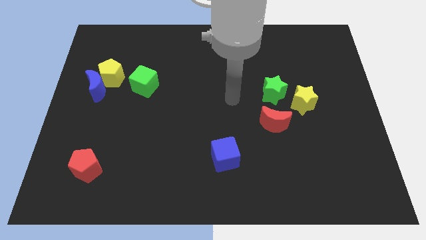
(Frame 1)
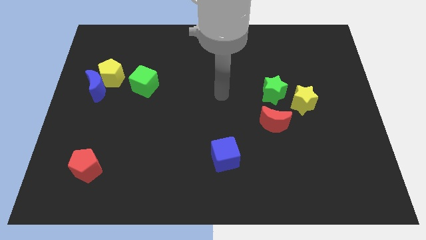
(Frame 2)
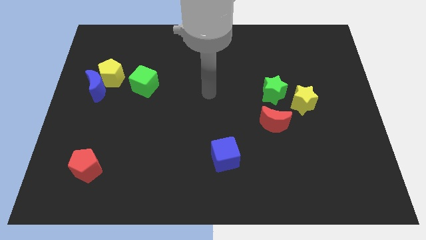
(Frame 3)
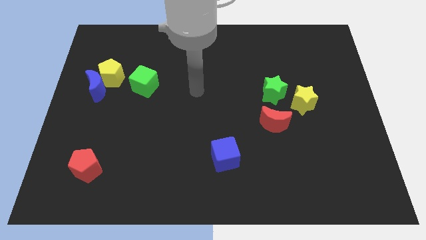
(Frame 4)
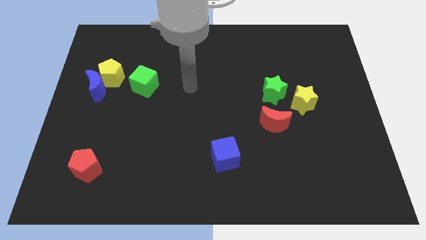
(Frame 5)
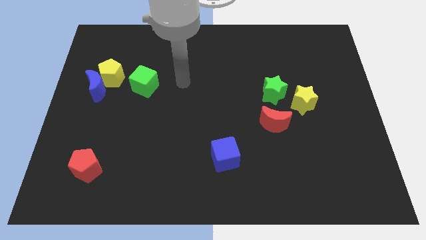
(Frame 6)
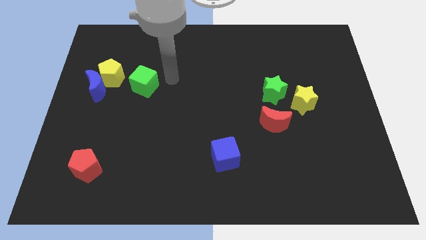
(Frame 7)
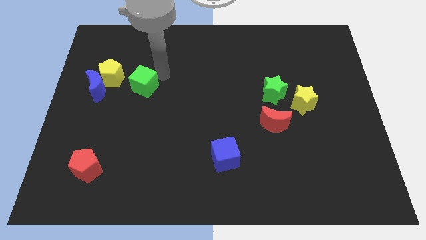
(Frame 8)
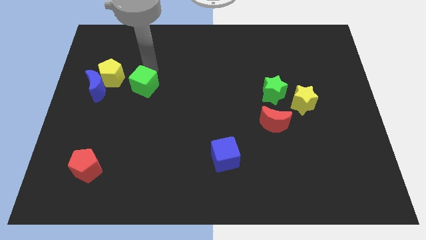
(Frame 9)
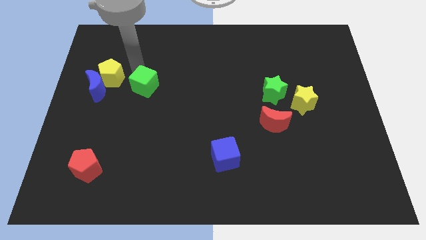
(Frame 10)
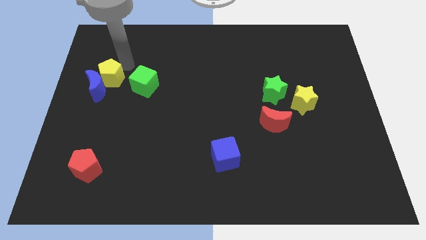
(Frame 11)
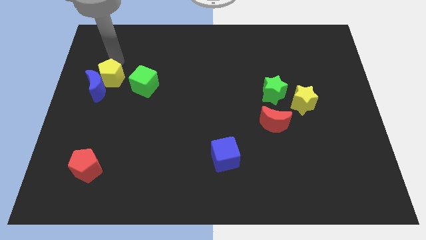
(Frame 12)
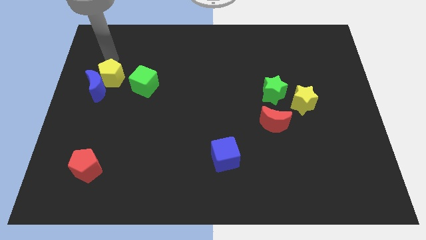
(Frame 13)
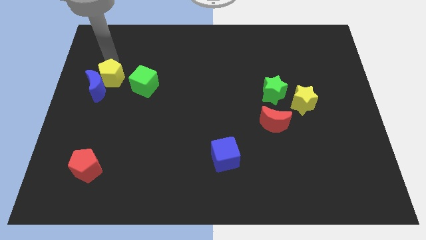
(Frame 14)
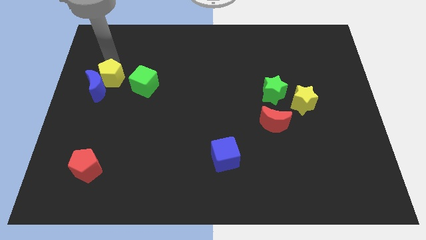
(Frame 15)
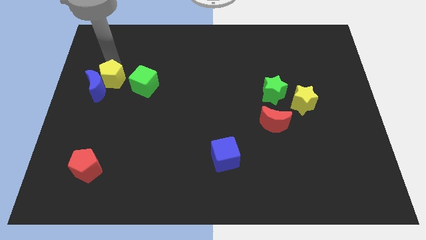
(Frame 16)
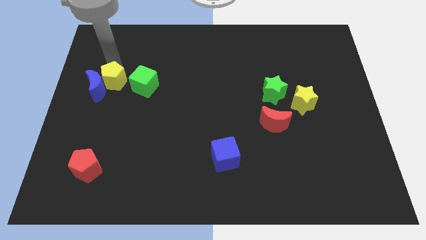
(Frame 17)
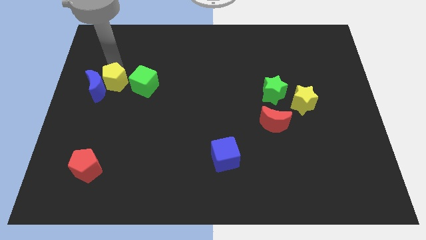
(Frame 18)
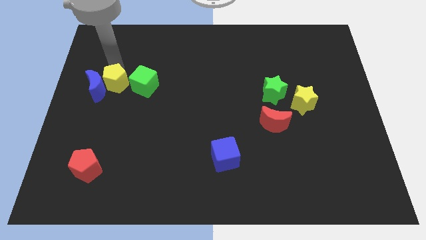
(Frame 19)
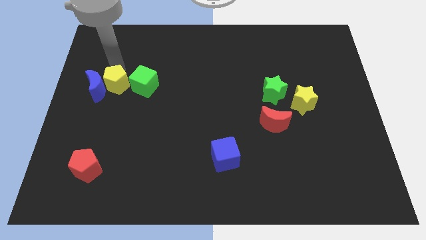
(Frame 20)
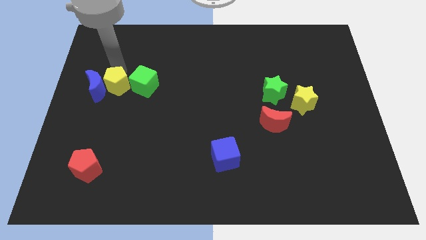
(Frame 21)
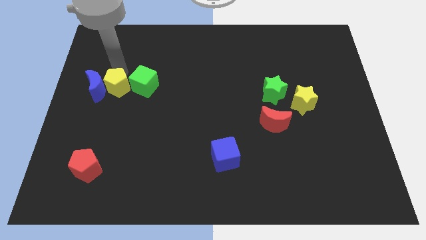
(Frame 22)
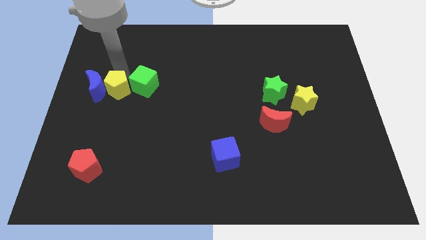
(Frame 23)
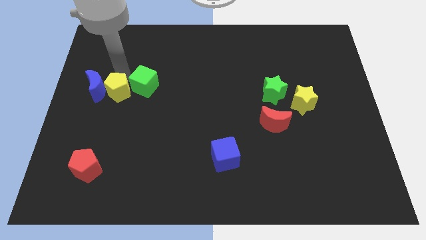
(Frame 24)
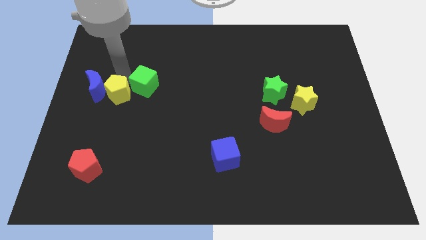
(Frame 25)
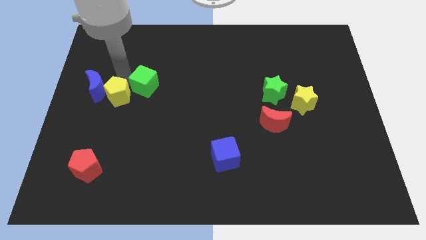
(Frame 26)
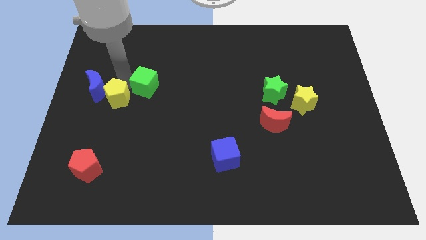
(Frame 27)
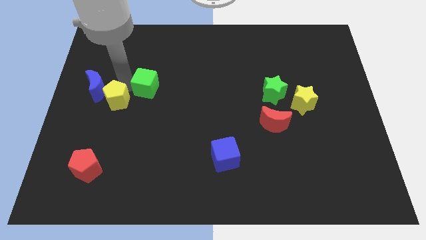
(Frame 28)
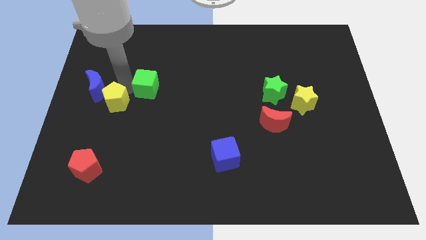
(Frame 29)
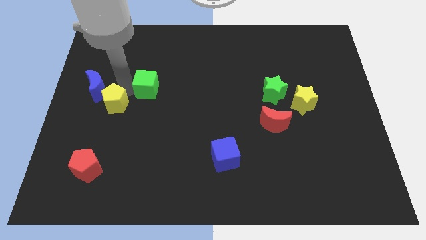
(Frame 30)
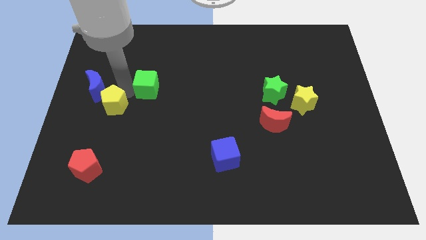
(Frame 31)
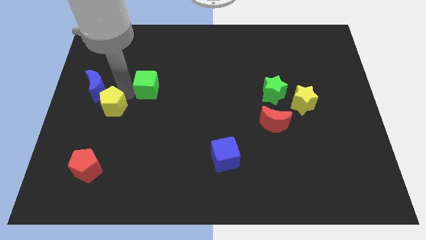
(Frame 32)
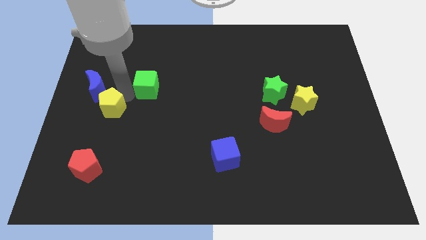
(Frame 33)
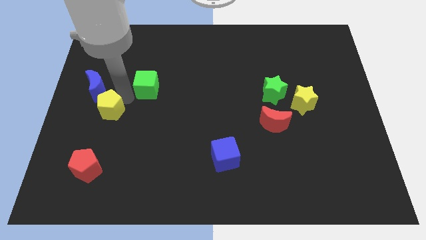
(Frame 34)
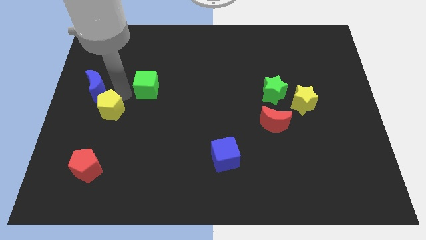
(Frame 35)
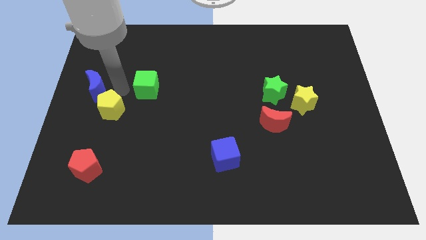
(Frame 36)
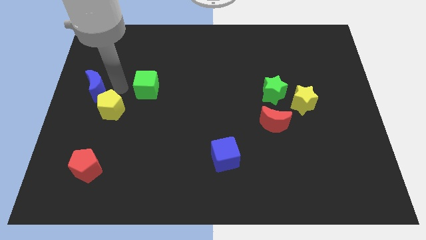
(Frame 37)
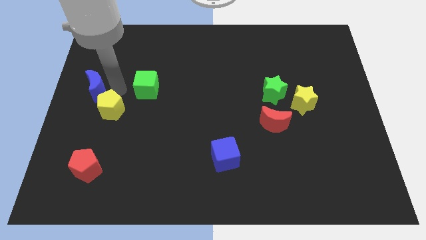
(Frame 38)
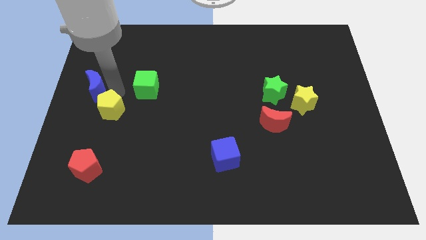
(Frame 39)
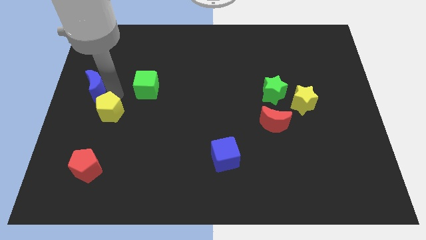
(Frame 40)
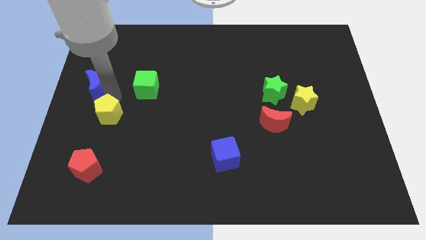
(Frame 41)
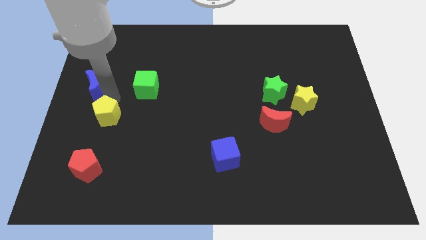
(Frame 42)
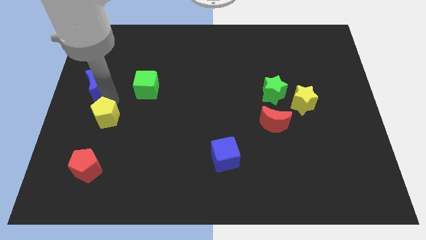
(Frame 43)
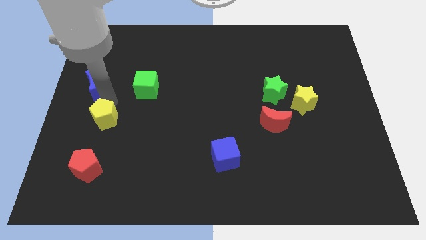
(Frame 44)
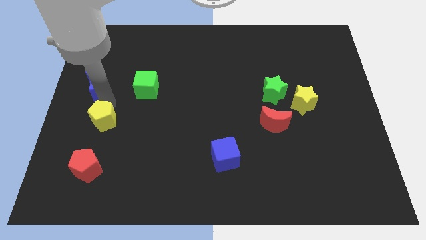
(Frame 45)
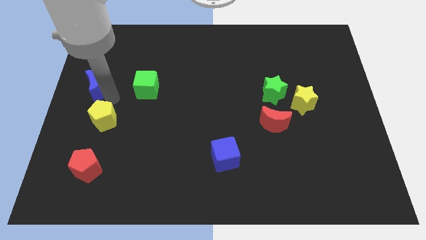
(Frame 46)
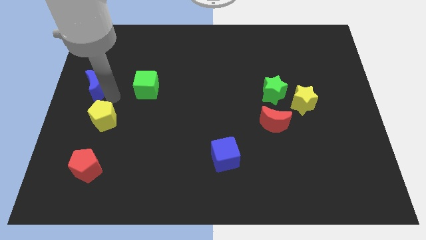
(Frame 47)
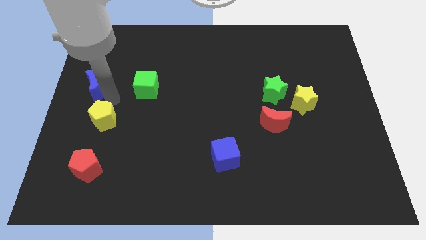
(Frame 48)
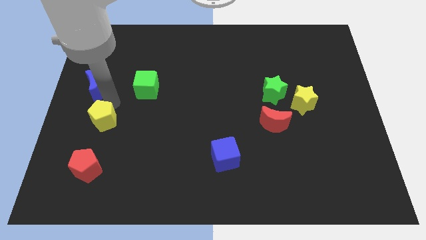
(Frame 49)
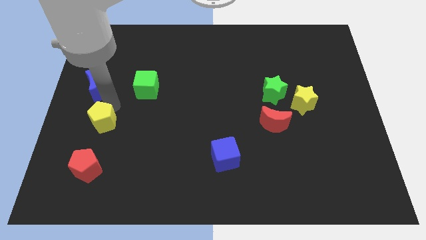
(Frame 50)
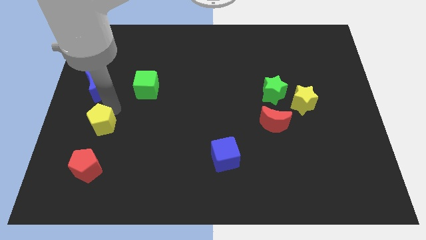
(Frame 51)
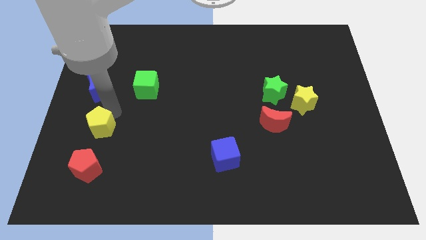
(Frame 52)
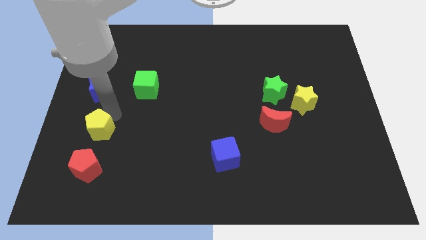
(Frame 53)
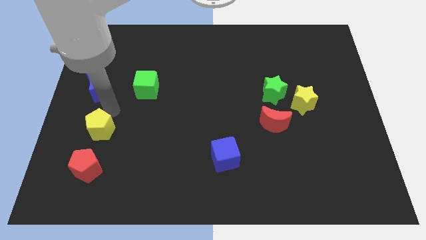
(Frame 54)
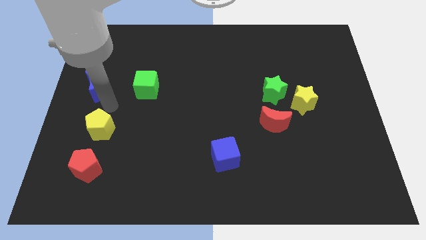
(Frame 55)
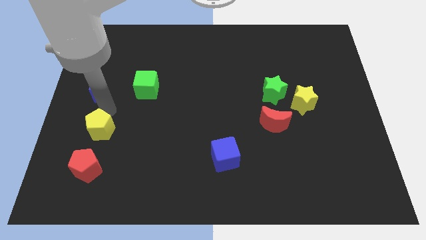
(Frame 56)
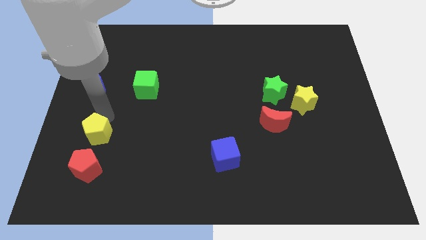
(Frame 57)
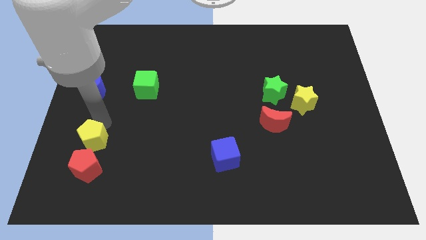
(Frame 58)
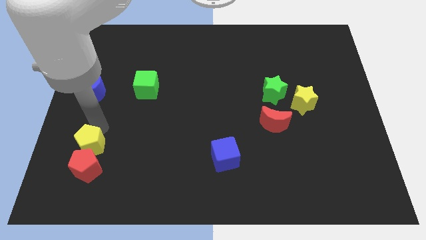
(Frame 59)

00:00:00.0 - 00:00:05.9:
push the yellow pentagon to the red pentagon

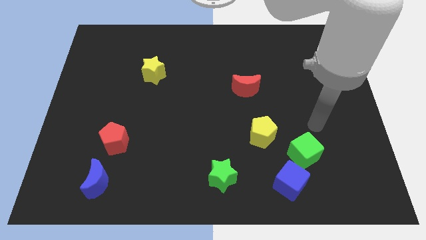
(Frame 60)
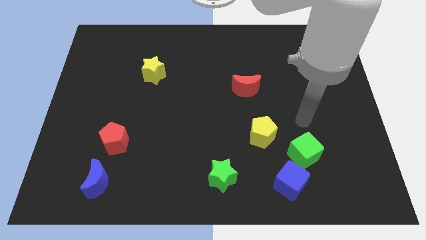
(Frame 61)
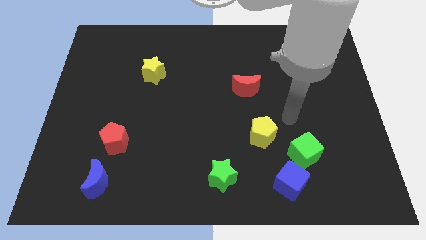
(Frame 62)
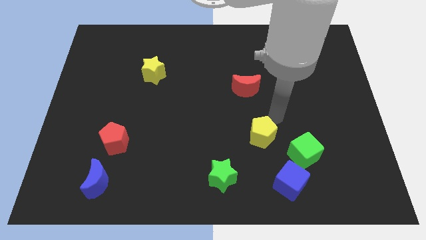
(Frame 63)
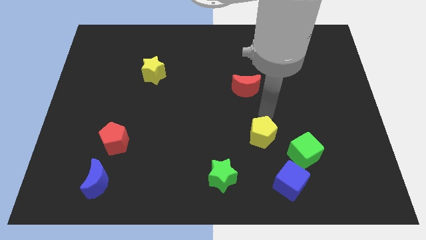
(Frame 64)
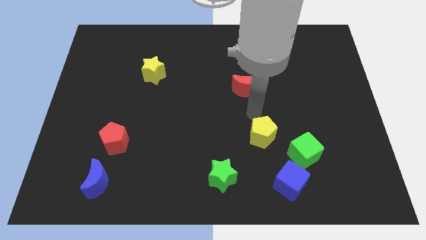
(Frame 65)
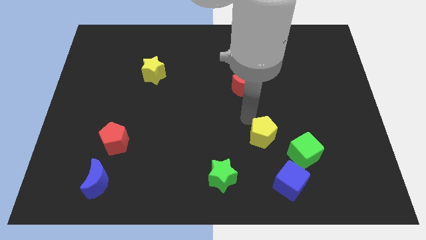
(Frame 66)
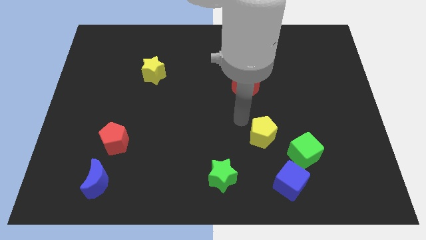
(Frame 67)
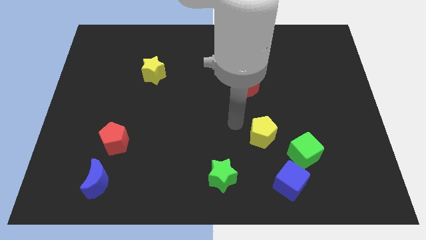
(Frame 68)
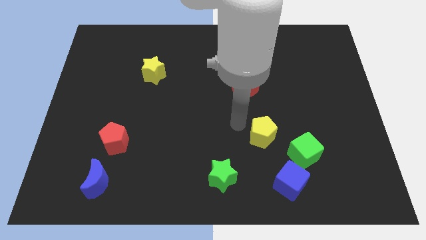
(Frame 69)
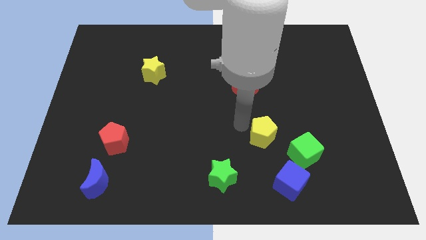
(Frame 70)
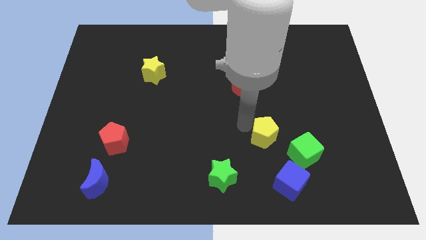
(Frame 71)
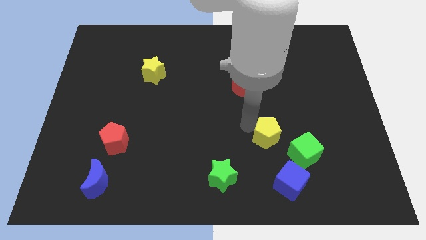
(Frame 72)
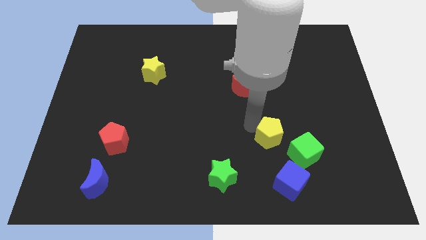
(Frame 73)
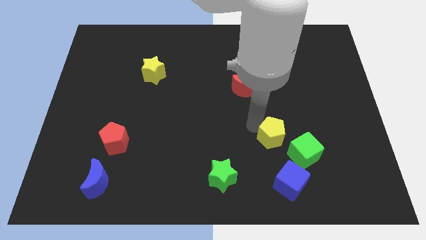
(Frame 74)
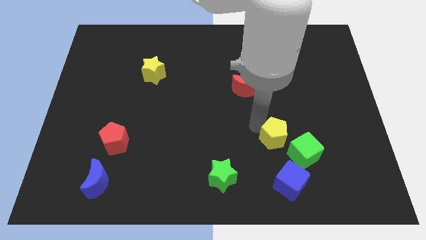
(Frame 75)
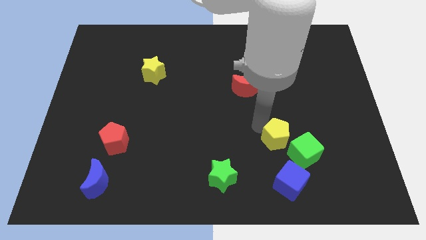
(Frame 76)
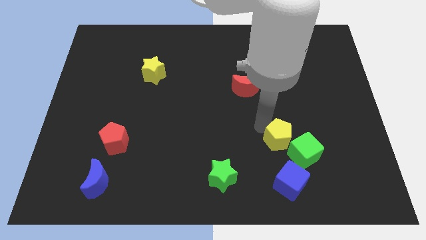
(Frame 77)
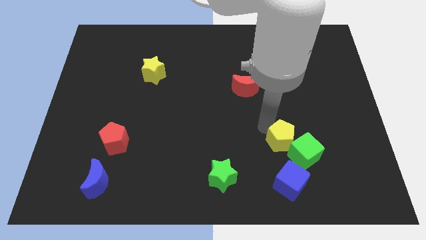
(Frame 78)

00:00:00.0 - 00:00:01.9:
push the yellow pentagon to the green cube
